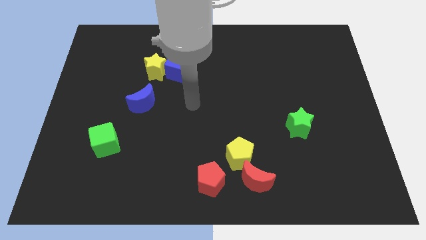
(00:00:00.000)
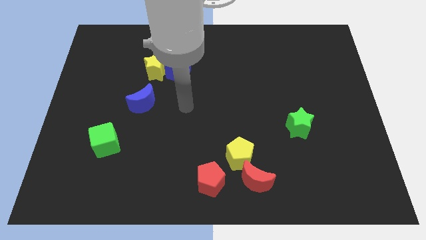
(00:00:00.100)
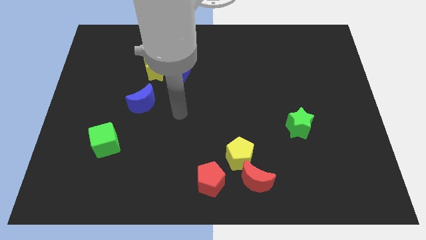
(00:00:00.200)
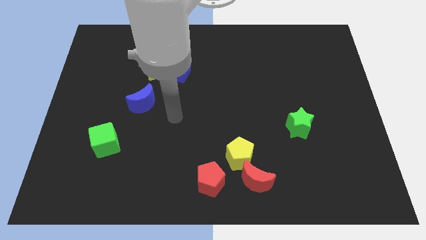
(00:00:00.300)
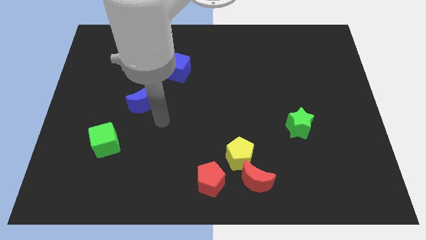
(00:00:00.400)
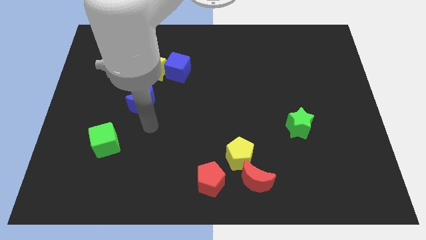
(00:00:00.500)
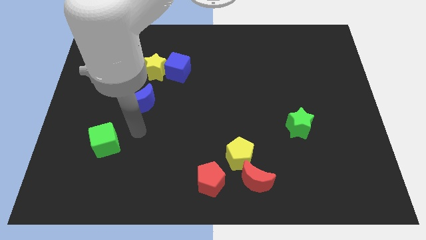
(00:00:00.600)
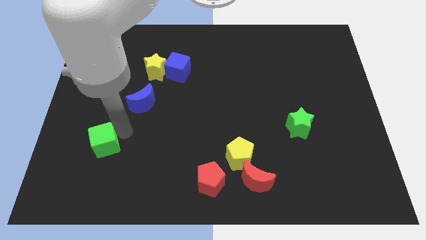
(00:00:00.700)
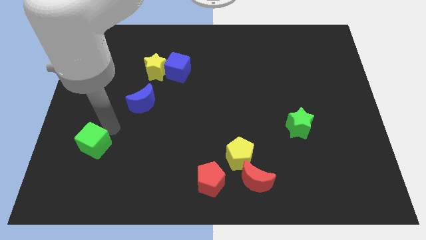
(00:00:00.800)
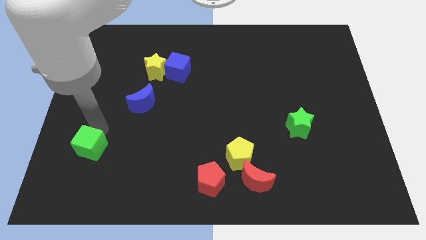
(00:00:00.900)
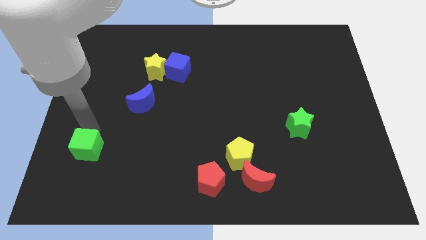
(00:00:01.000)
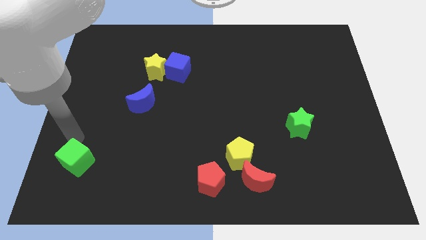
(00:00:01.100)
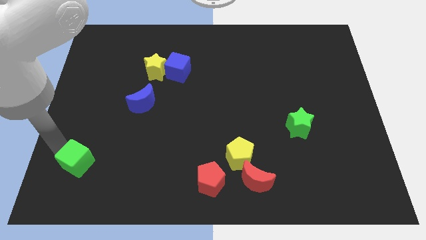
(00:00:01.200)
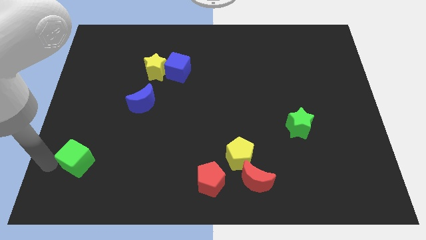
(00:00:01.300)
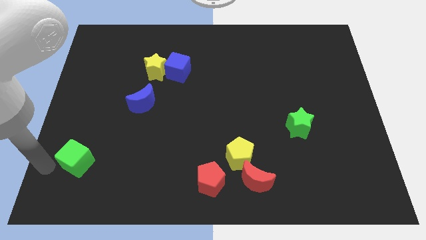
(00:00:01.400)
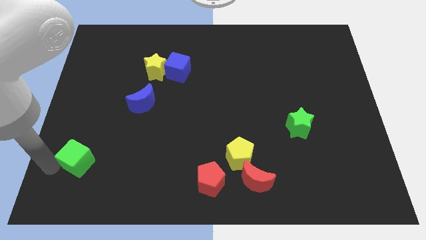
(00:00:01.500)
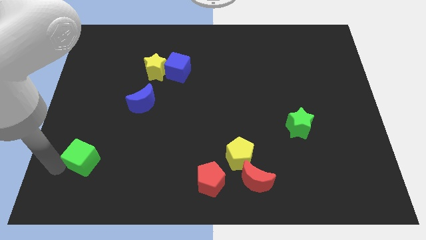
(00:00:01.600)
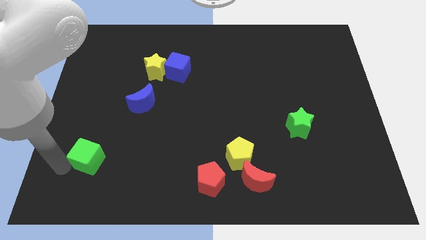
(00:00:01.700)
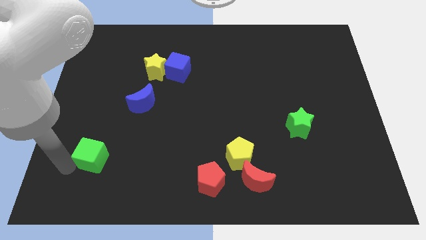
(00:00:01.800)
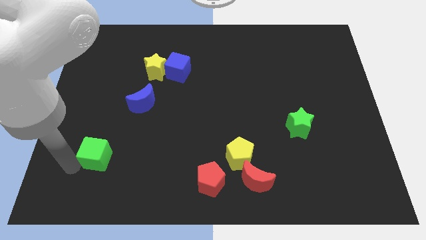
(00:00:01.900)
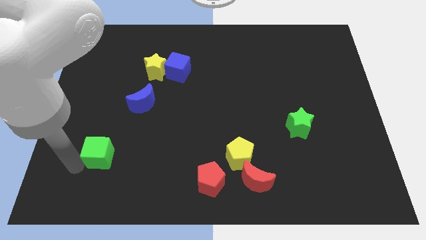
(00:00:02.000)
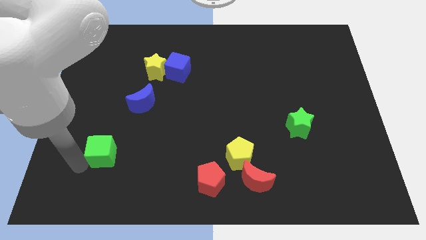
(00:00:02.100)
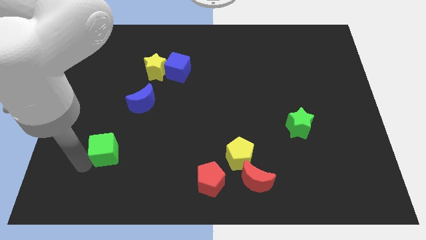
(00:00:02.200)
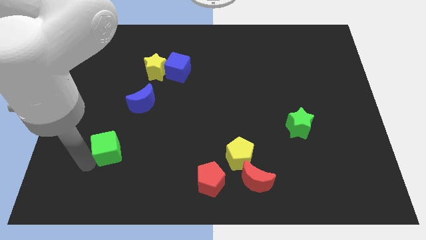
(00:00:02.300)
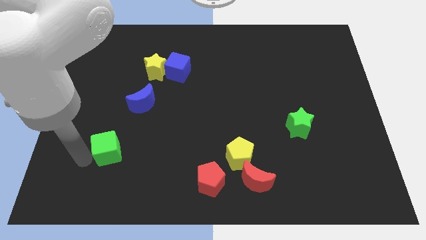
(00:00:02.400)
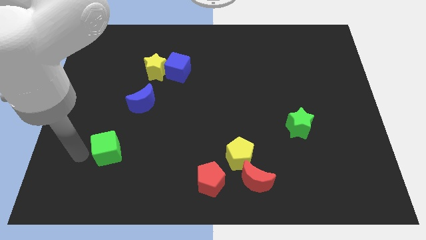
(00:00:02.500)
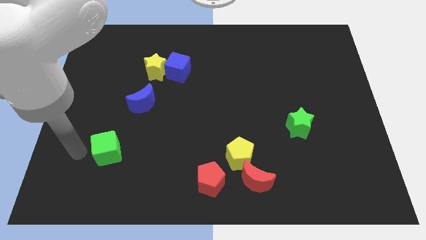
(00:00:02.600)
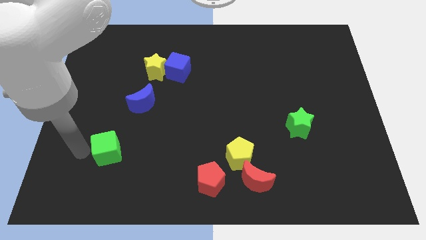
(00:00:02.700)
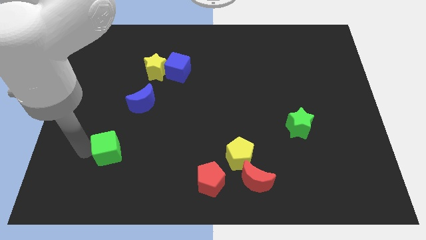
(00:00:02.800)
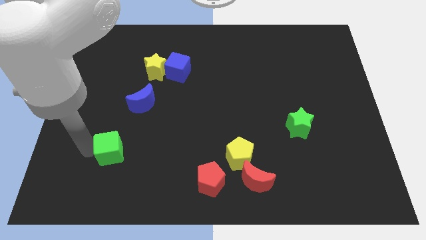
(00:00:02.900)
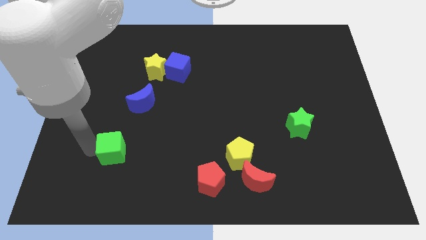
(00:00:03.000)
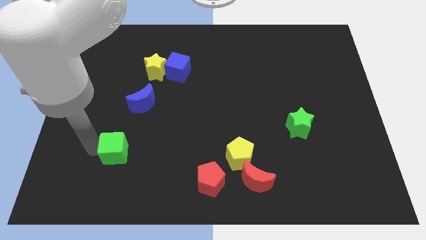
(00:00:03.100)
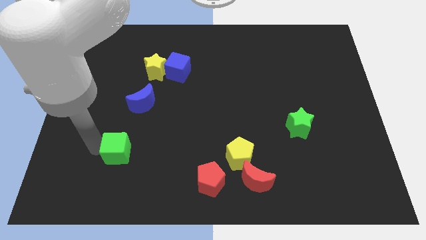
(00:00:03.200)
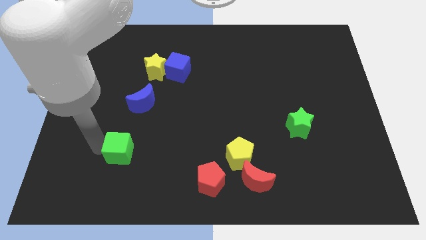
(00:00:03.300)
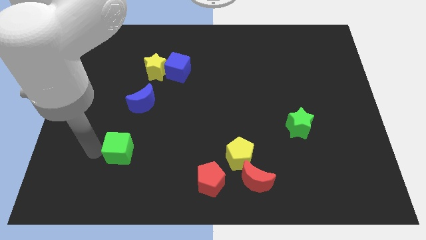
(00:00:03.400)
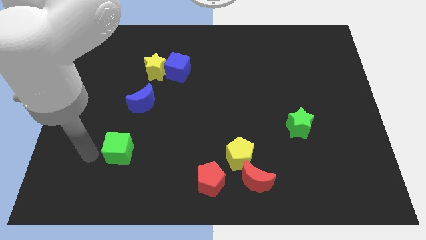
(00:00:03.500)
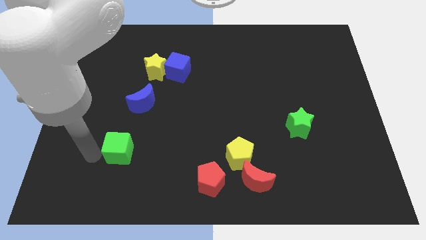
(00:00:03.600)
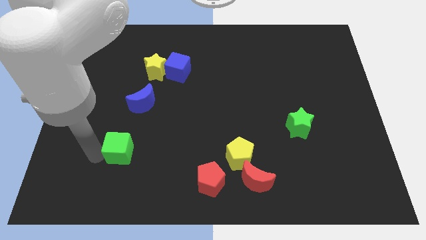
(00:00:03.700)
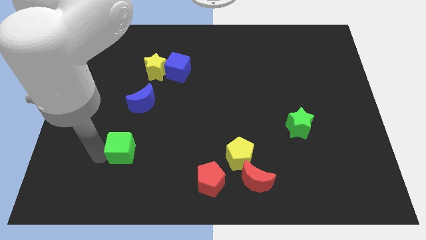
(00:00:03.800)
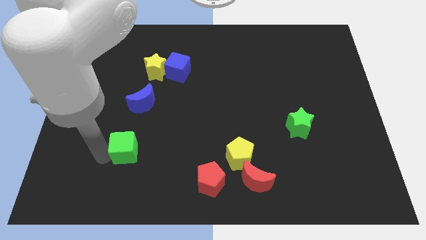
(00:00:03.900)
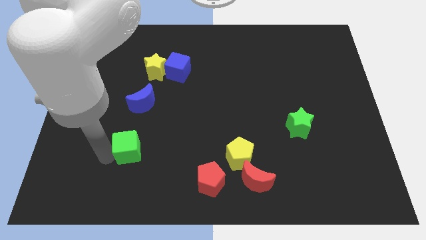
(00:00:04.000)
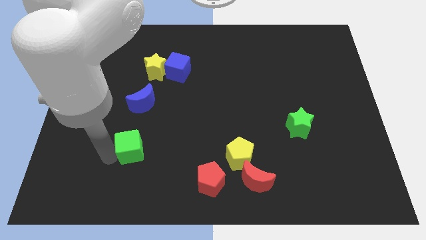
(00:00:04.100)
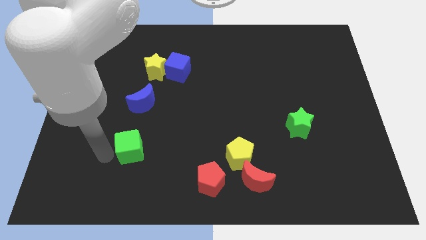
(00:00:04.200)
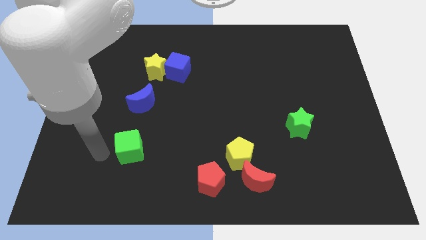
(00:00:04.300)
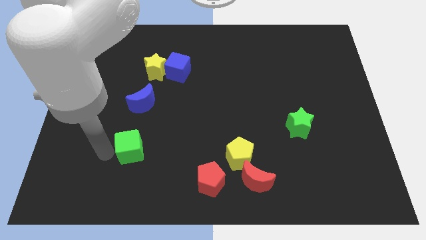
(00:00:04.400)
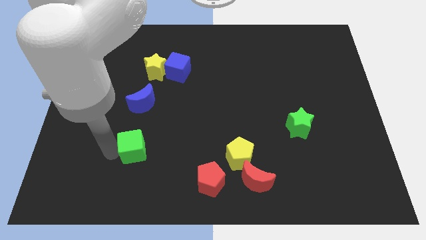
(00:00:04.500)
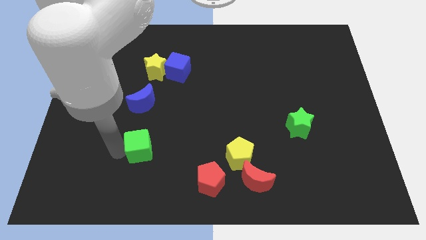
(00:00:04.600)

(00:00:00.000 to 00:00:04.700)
slightly slide the green cube right

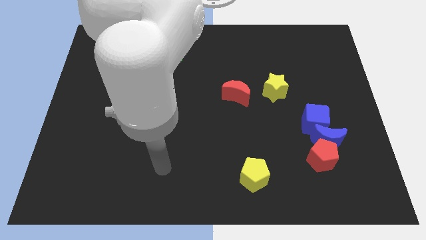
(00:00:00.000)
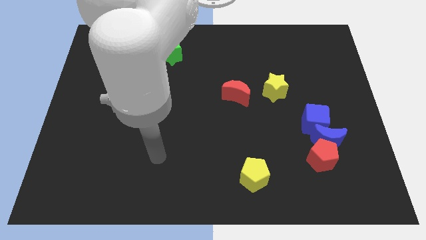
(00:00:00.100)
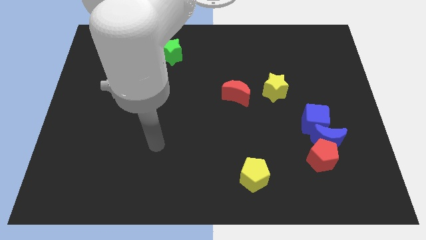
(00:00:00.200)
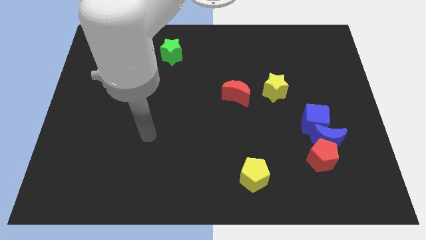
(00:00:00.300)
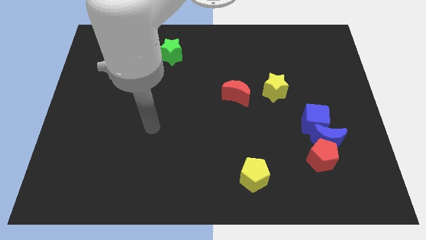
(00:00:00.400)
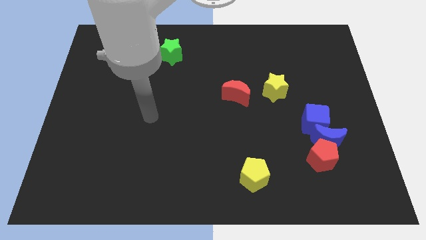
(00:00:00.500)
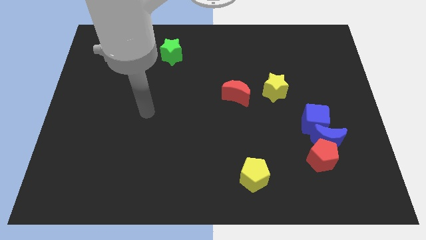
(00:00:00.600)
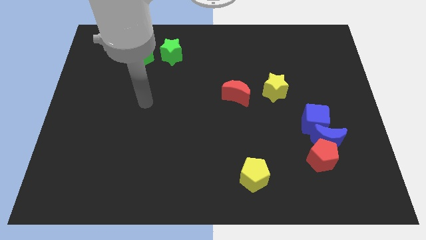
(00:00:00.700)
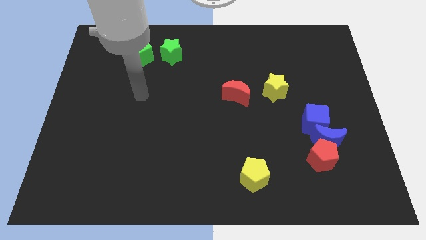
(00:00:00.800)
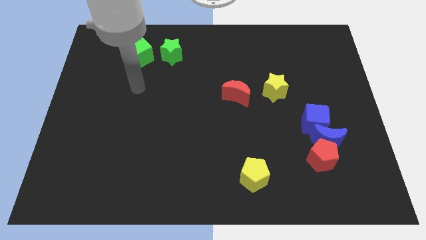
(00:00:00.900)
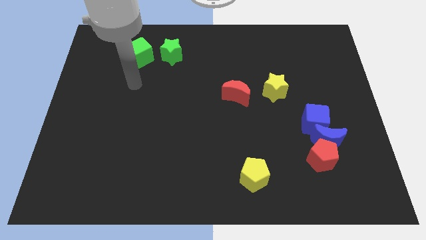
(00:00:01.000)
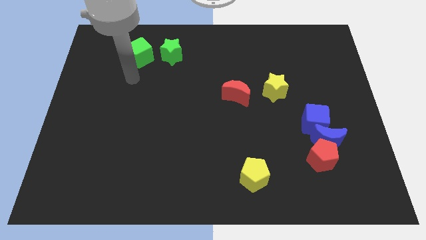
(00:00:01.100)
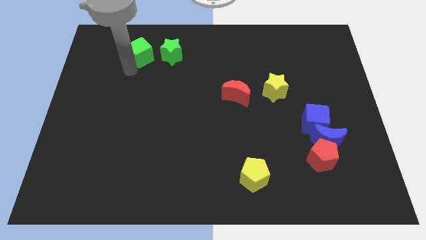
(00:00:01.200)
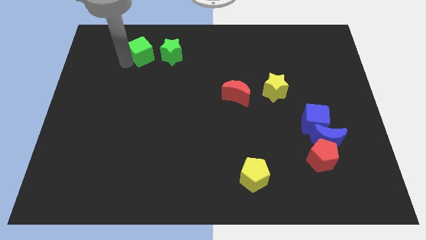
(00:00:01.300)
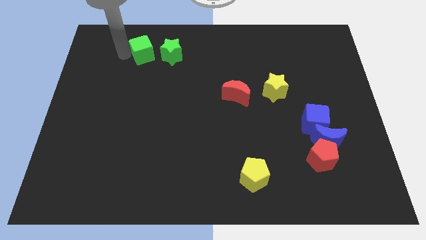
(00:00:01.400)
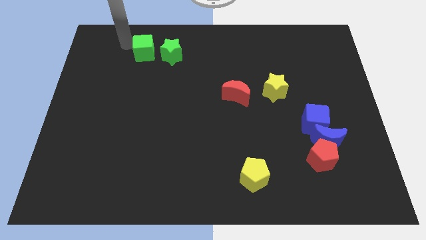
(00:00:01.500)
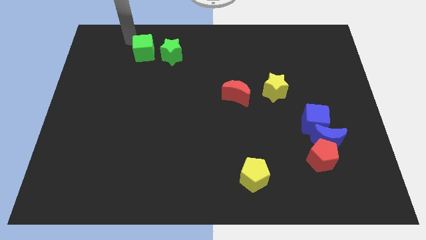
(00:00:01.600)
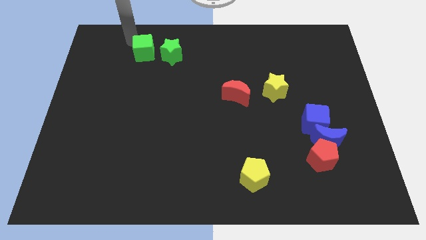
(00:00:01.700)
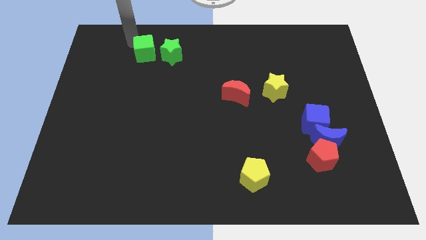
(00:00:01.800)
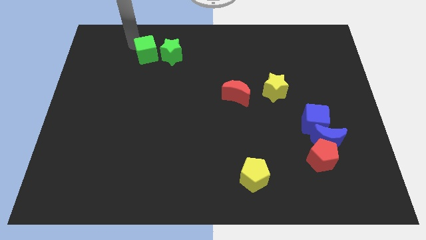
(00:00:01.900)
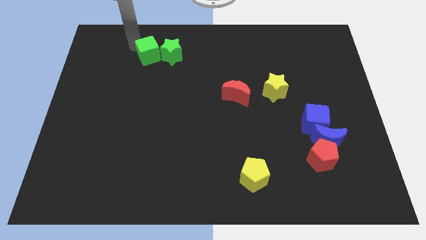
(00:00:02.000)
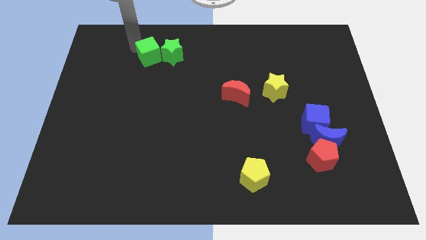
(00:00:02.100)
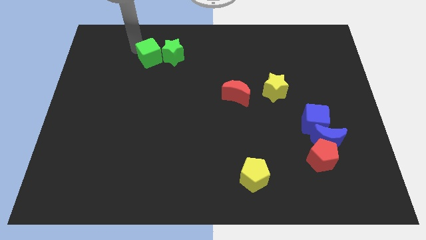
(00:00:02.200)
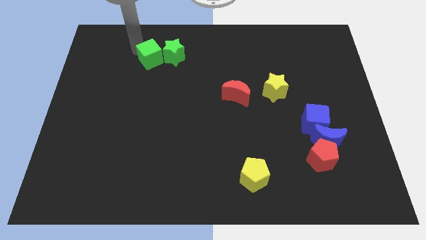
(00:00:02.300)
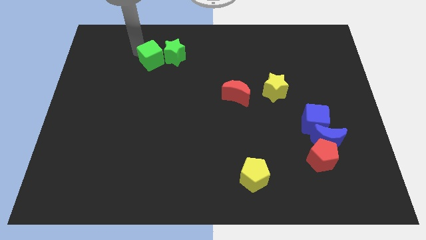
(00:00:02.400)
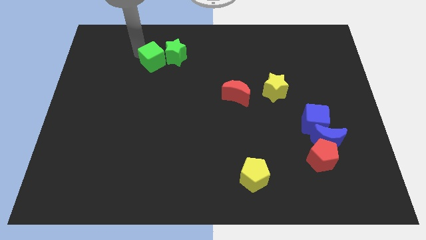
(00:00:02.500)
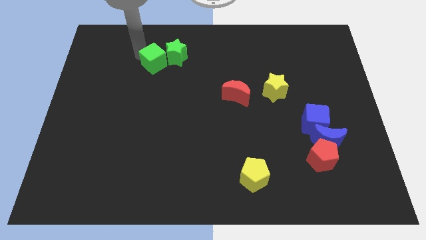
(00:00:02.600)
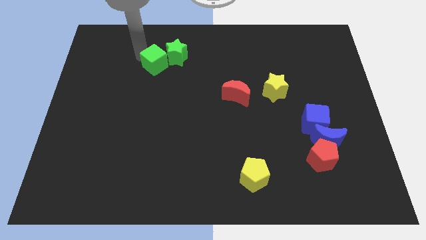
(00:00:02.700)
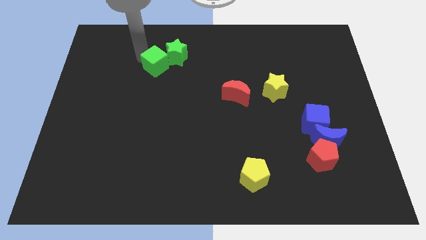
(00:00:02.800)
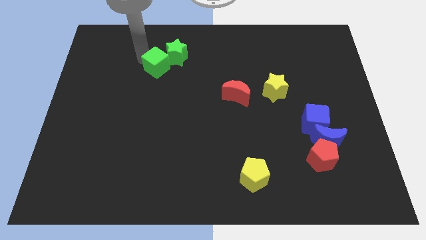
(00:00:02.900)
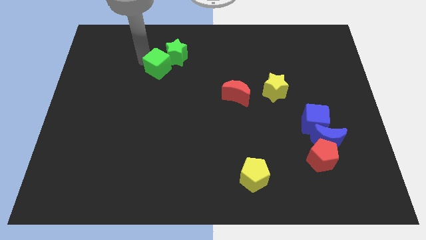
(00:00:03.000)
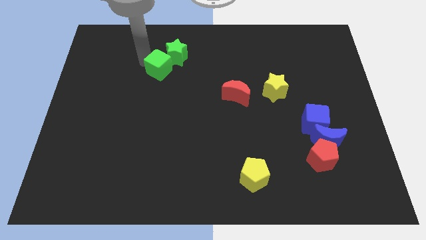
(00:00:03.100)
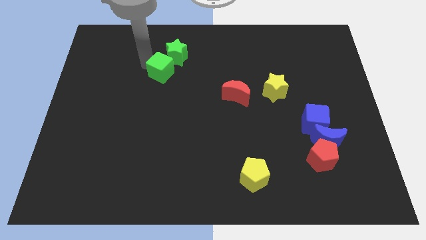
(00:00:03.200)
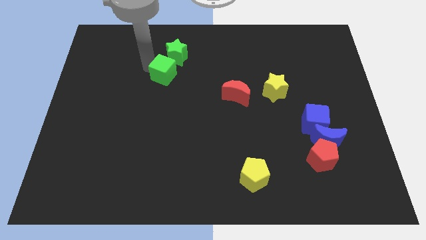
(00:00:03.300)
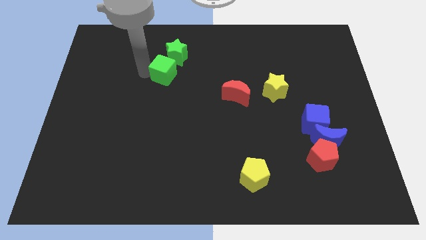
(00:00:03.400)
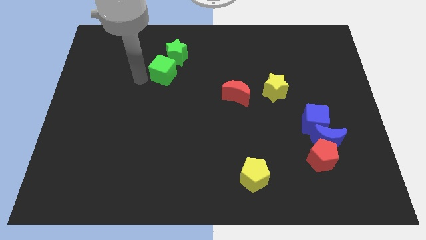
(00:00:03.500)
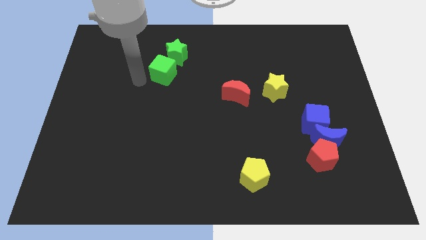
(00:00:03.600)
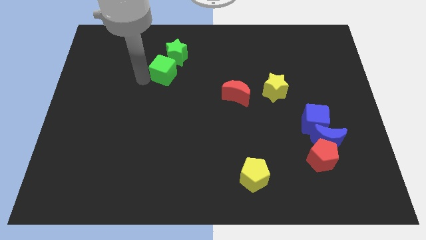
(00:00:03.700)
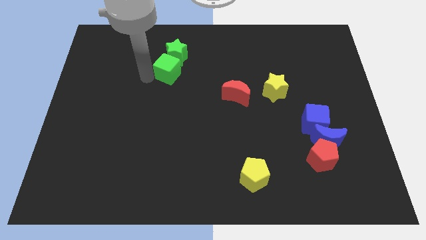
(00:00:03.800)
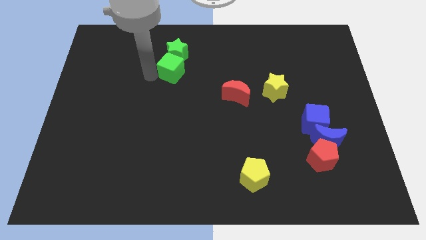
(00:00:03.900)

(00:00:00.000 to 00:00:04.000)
slightly move the green cube to the right
